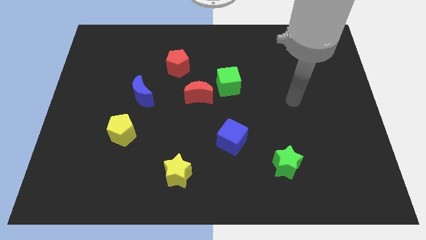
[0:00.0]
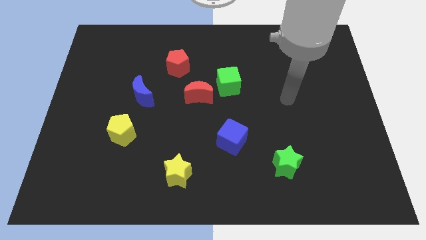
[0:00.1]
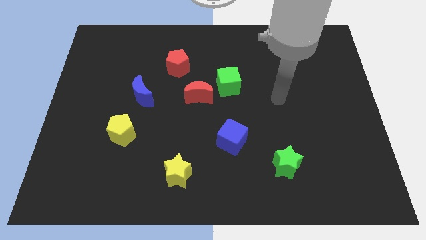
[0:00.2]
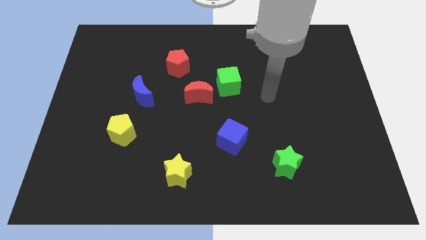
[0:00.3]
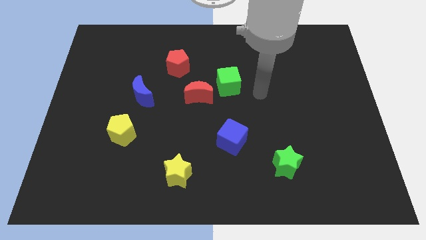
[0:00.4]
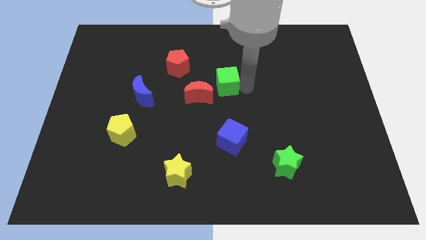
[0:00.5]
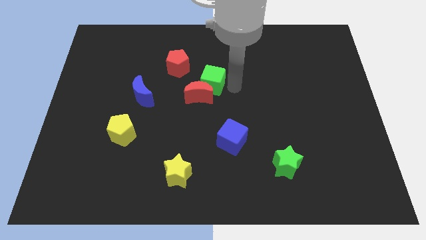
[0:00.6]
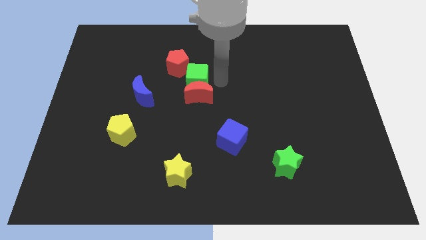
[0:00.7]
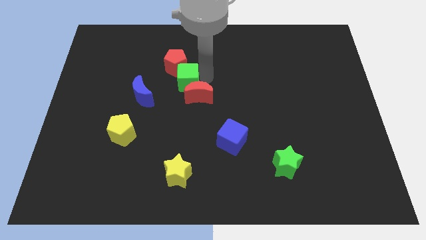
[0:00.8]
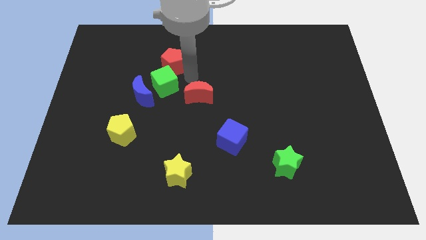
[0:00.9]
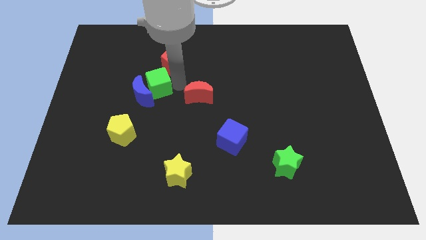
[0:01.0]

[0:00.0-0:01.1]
pull the red moon apart from the green cube

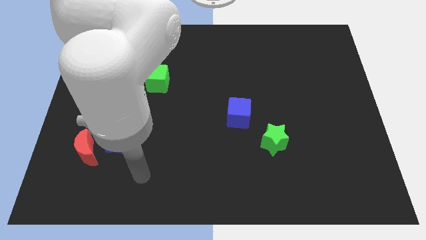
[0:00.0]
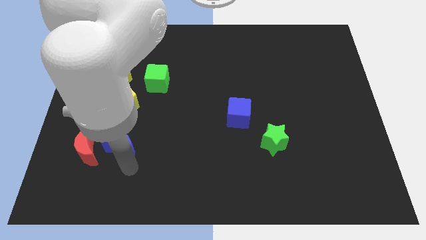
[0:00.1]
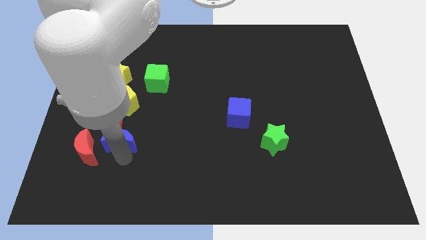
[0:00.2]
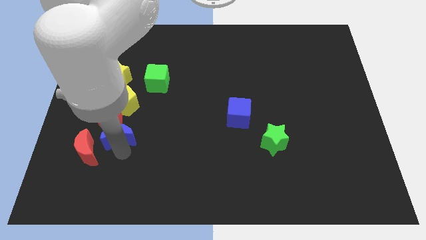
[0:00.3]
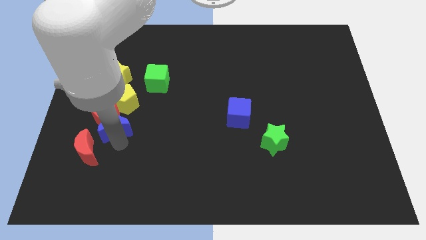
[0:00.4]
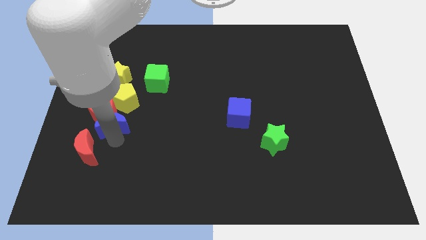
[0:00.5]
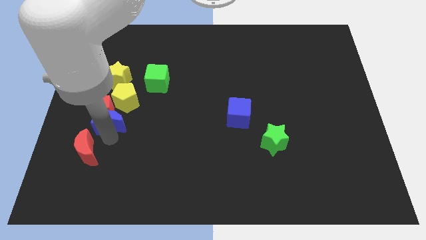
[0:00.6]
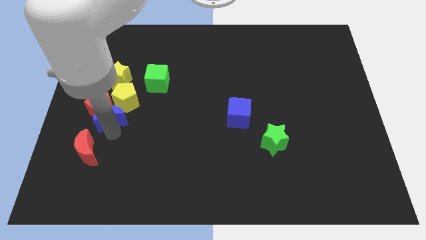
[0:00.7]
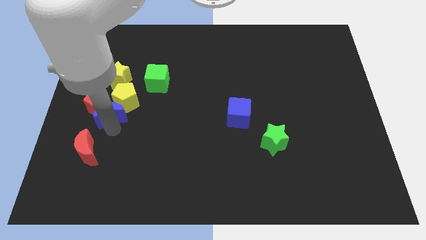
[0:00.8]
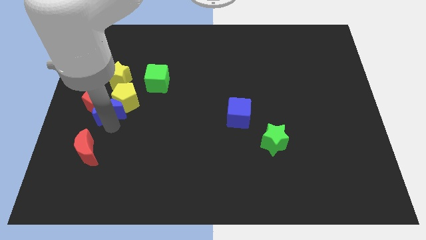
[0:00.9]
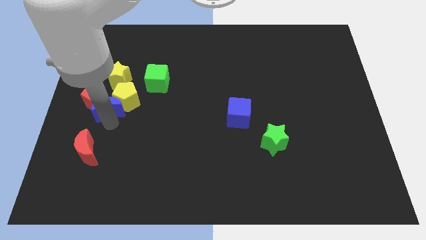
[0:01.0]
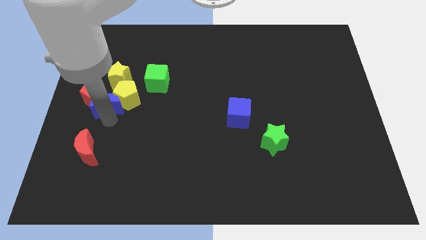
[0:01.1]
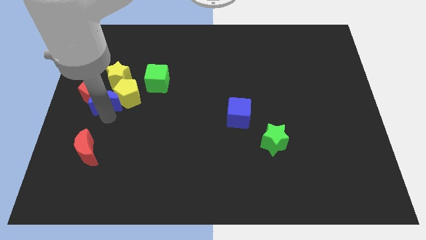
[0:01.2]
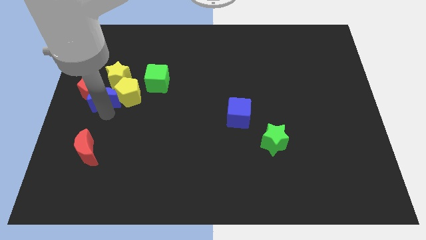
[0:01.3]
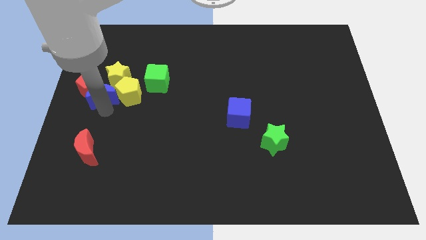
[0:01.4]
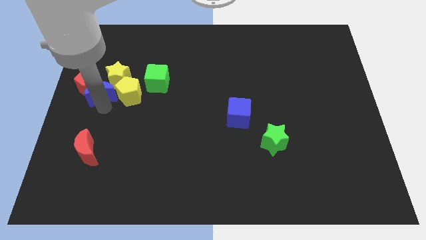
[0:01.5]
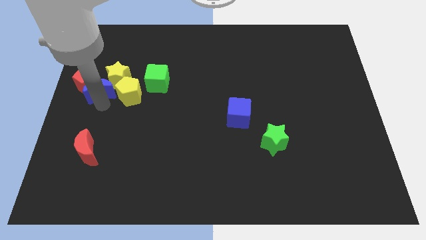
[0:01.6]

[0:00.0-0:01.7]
separate the red pentagon from the group

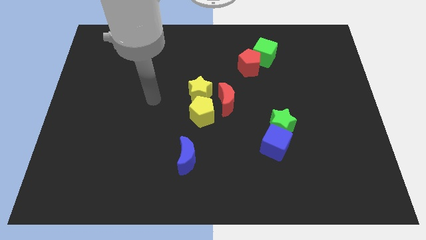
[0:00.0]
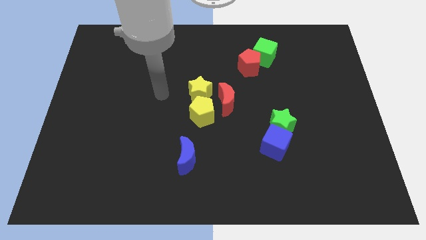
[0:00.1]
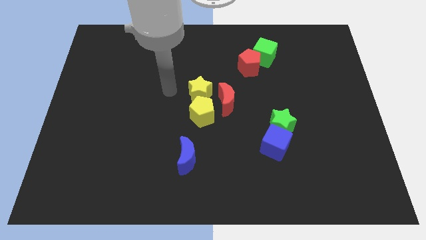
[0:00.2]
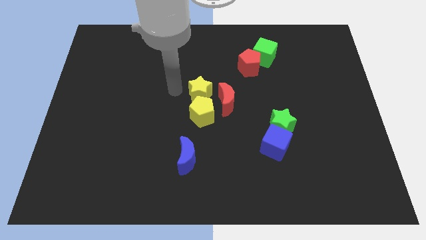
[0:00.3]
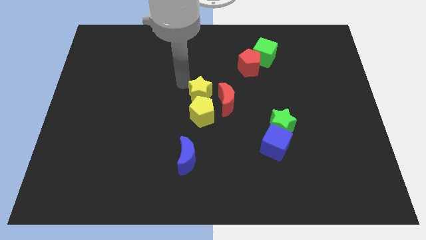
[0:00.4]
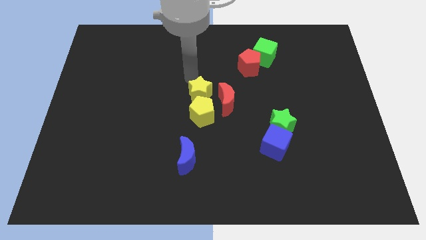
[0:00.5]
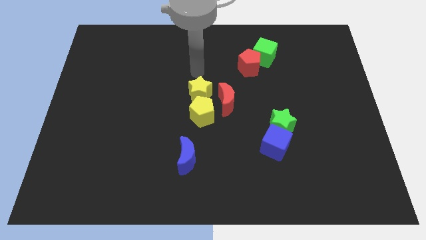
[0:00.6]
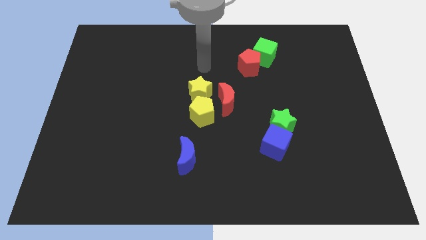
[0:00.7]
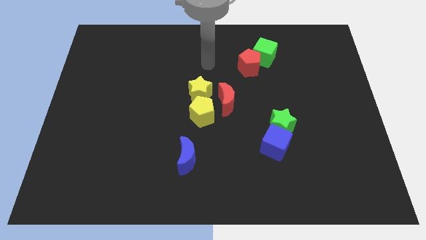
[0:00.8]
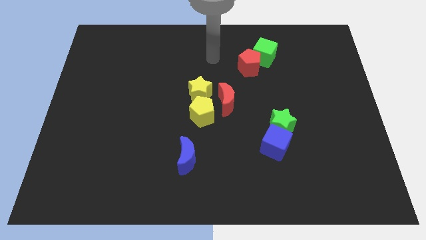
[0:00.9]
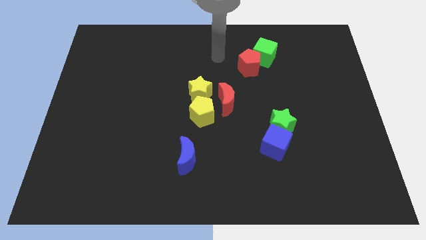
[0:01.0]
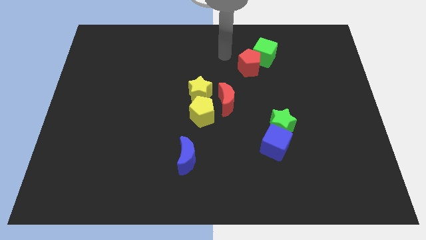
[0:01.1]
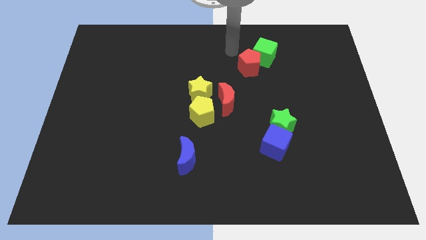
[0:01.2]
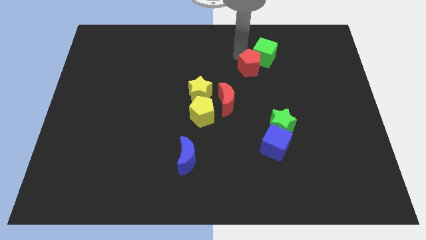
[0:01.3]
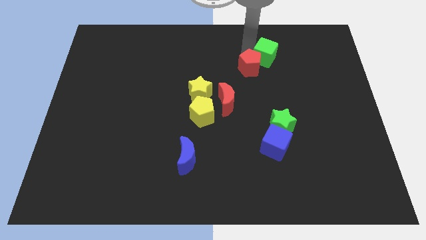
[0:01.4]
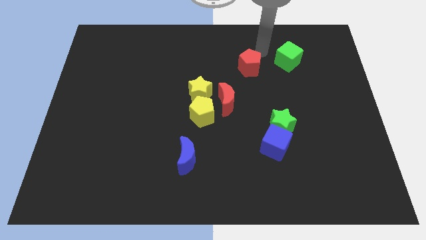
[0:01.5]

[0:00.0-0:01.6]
separate the red pentagon from the green cube

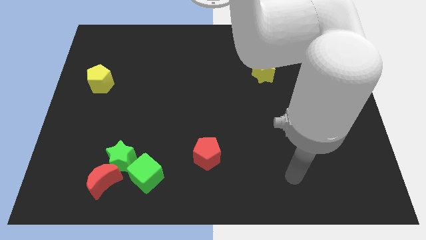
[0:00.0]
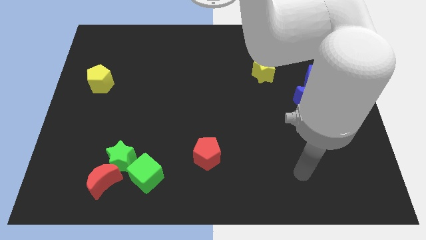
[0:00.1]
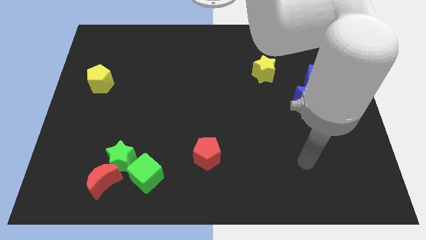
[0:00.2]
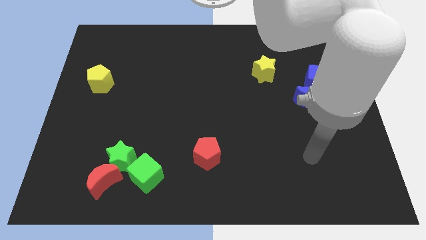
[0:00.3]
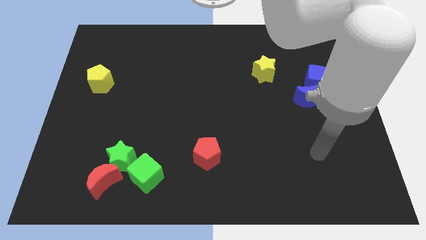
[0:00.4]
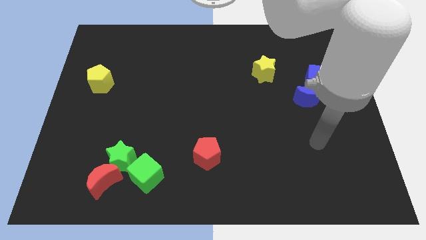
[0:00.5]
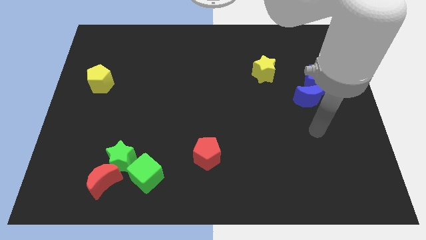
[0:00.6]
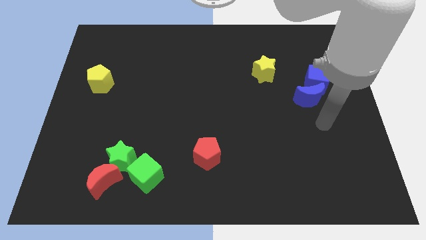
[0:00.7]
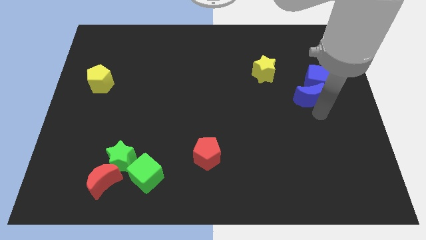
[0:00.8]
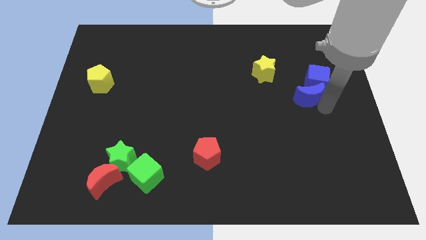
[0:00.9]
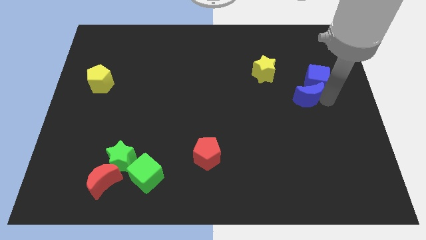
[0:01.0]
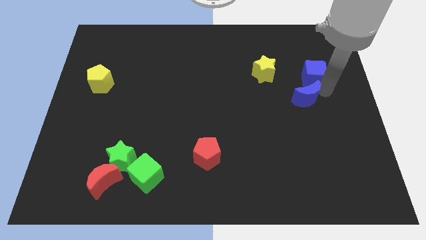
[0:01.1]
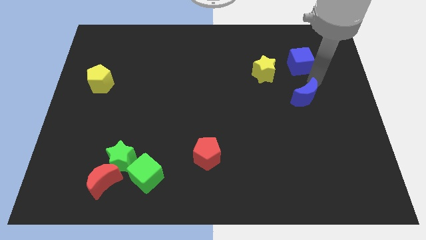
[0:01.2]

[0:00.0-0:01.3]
separate the blue moon from the blue cube

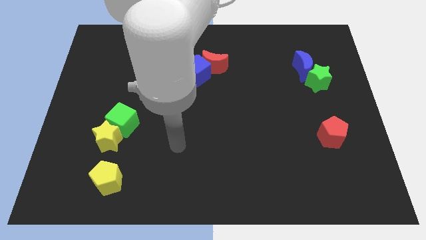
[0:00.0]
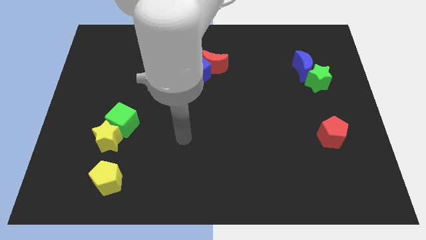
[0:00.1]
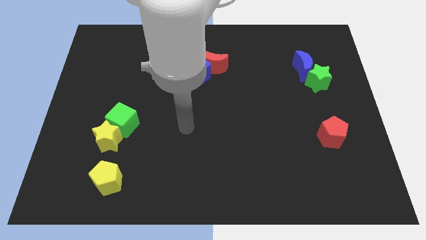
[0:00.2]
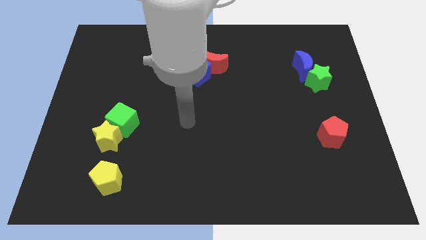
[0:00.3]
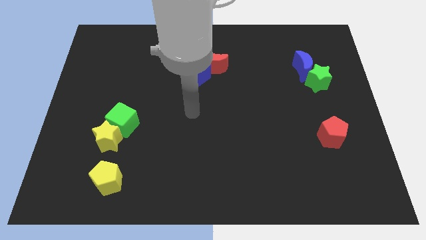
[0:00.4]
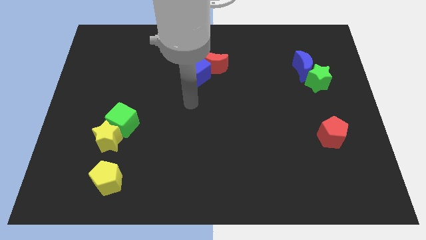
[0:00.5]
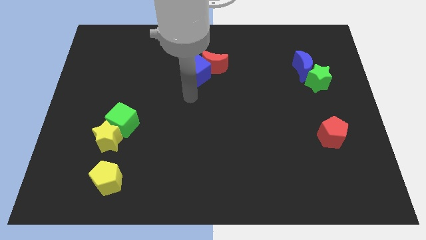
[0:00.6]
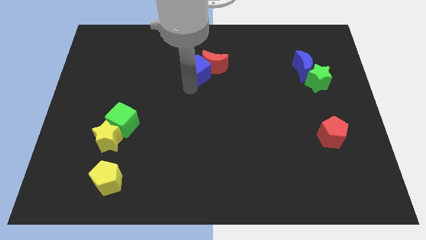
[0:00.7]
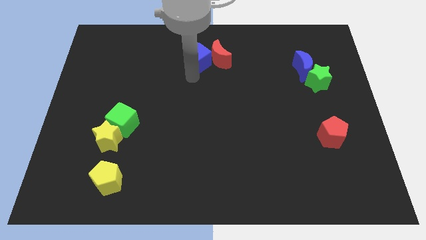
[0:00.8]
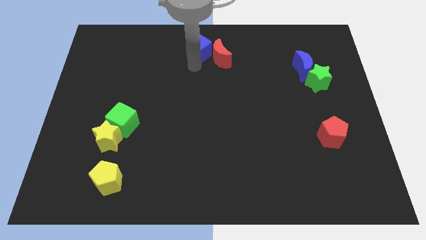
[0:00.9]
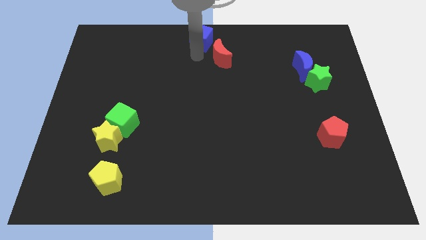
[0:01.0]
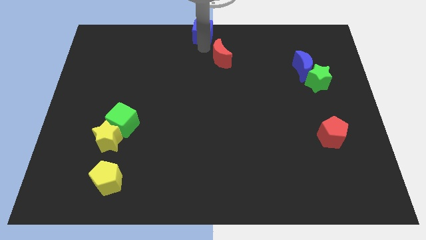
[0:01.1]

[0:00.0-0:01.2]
pull the red moon apart from the blue cube

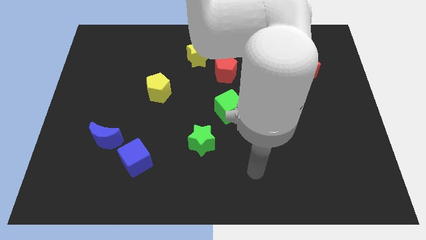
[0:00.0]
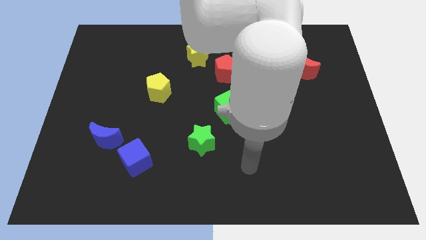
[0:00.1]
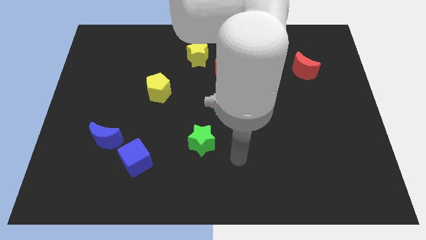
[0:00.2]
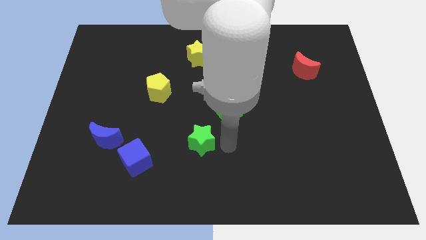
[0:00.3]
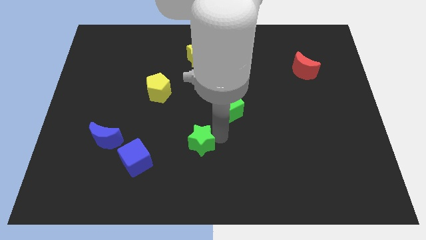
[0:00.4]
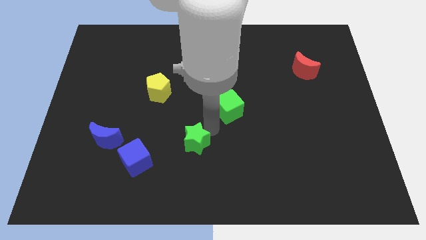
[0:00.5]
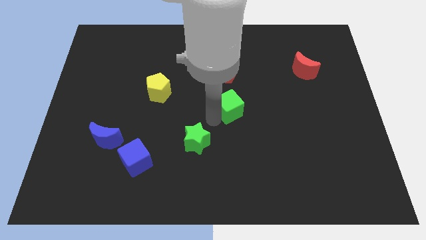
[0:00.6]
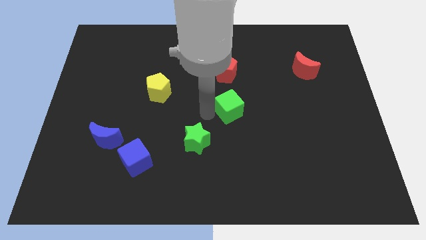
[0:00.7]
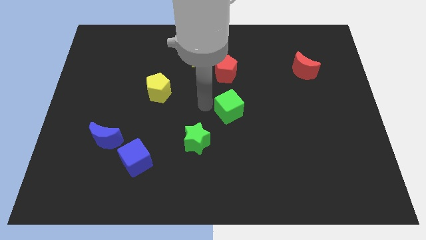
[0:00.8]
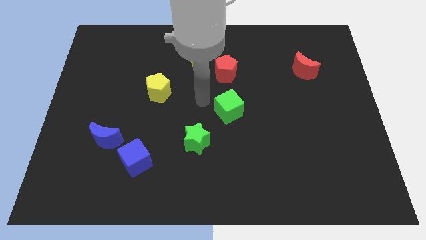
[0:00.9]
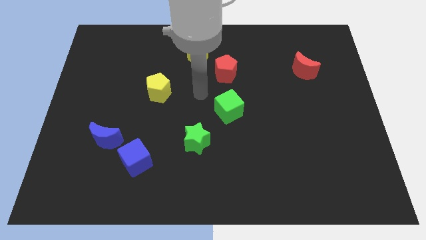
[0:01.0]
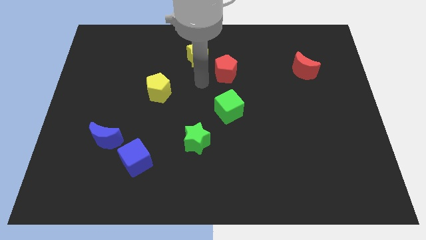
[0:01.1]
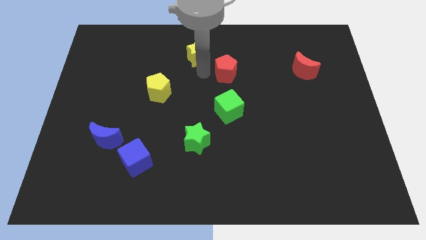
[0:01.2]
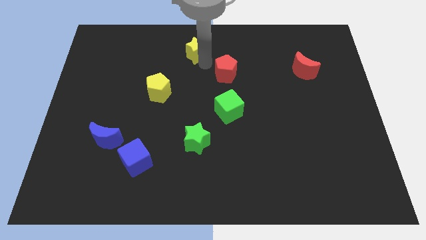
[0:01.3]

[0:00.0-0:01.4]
separate the red pentagon from the yellow star

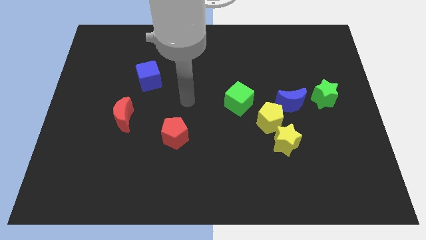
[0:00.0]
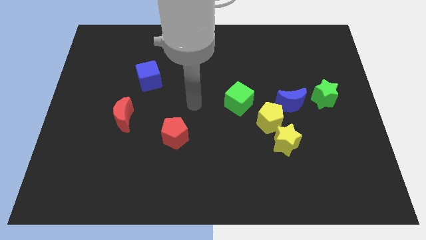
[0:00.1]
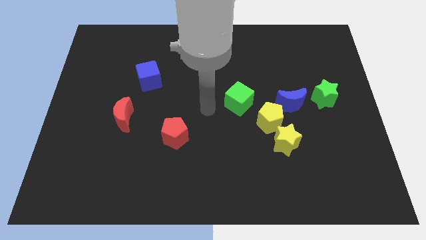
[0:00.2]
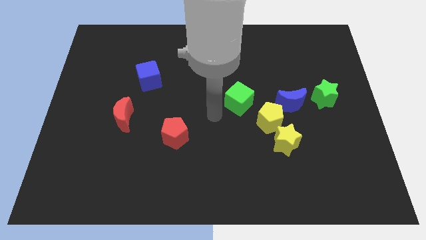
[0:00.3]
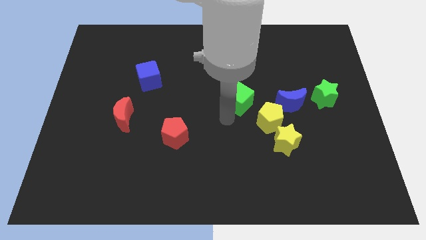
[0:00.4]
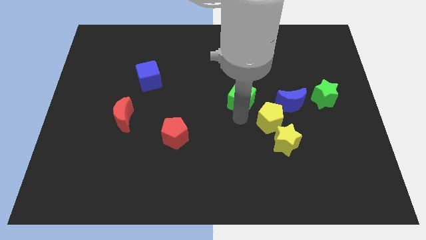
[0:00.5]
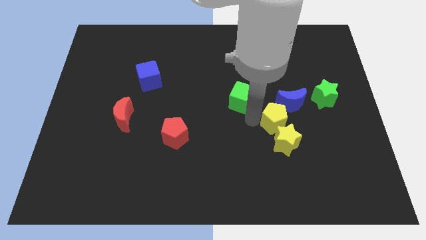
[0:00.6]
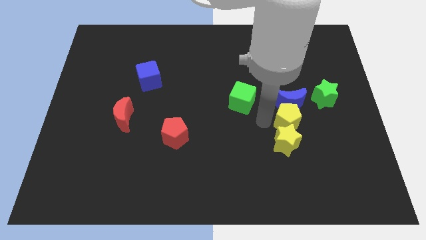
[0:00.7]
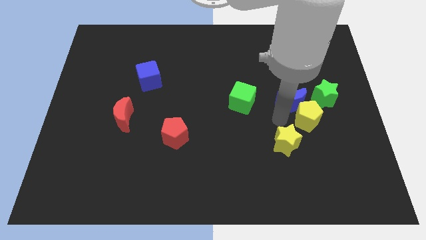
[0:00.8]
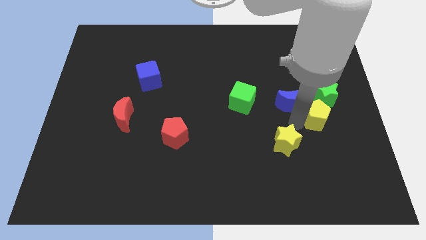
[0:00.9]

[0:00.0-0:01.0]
separate the yellow star from the yellow pentagon
